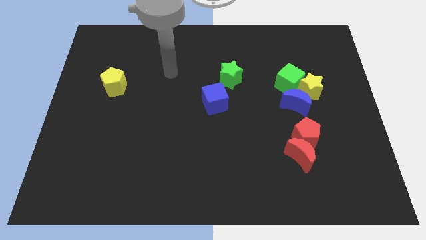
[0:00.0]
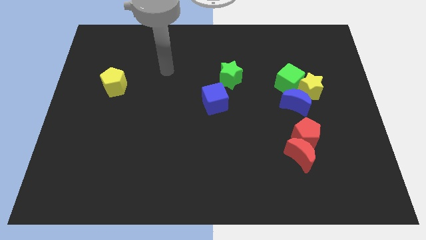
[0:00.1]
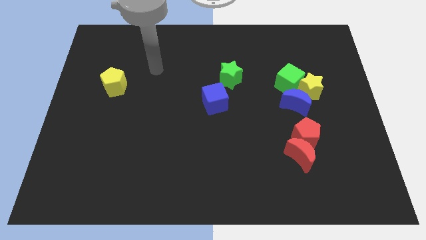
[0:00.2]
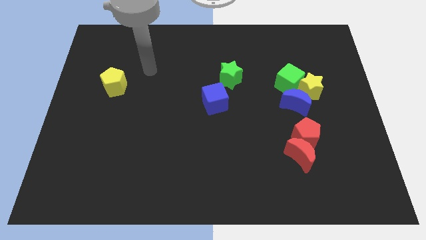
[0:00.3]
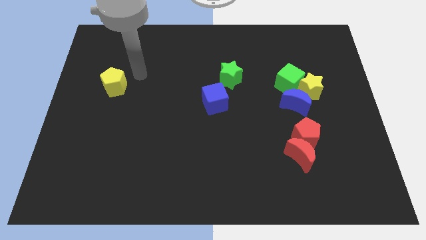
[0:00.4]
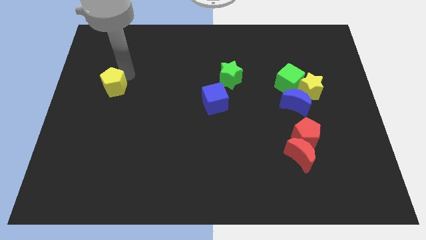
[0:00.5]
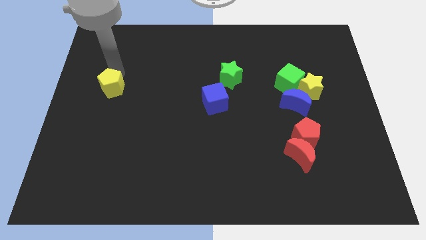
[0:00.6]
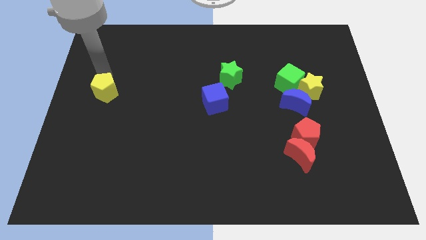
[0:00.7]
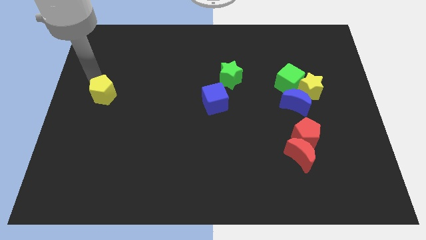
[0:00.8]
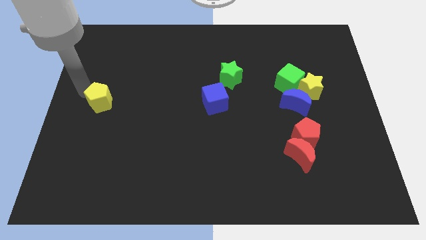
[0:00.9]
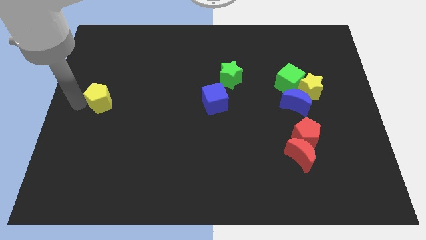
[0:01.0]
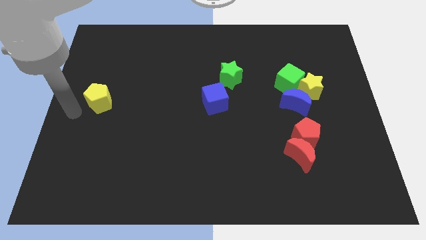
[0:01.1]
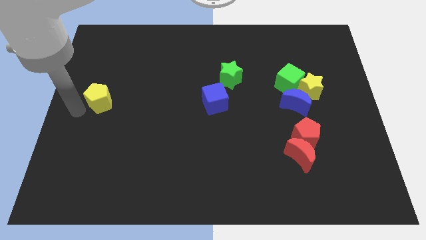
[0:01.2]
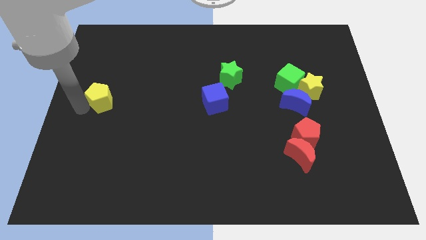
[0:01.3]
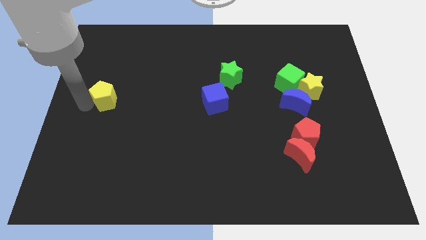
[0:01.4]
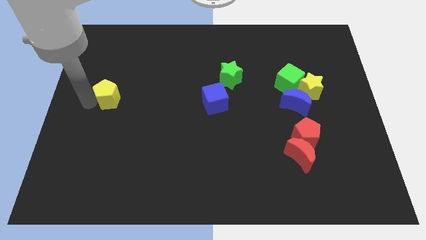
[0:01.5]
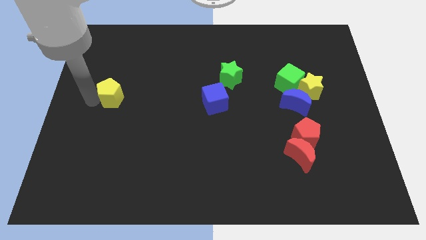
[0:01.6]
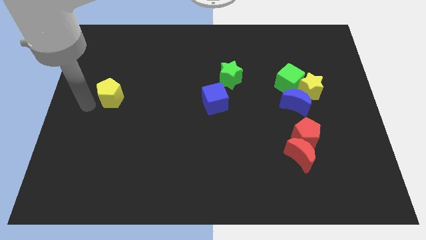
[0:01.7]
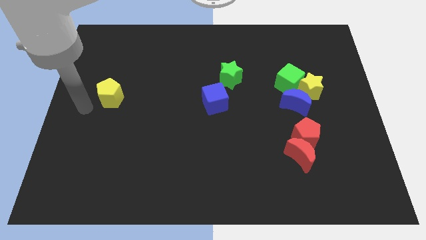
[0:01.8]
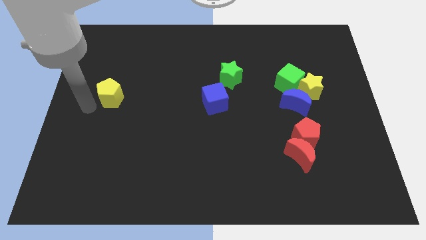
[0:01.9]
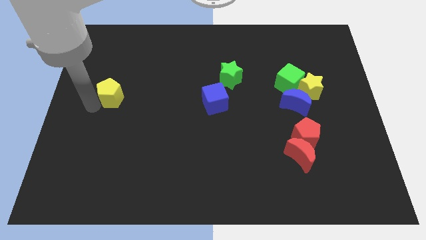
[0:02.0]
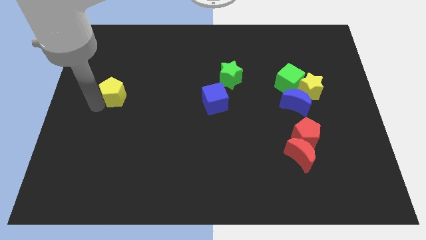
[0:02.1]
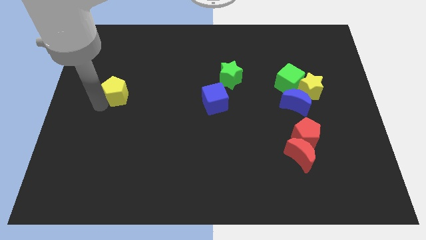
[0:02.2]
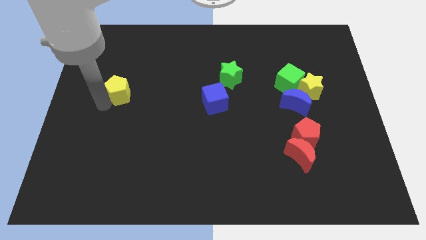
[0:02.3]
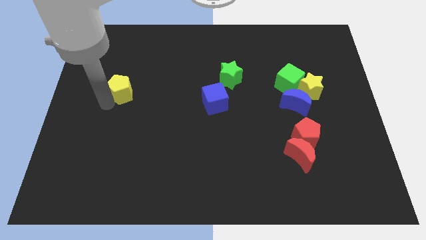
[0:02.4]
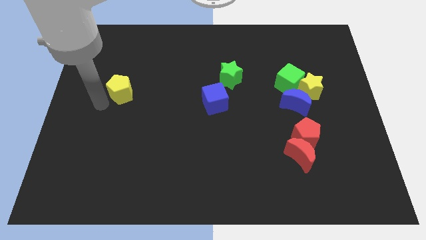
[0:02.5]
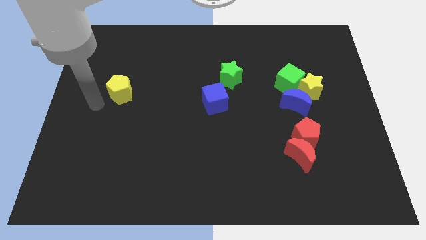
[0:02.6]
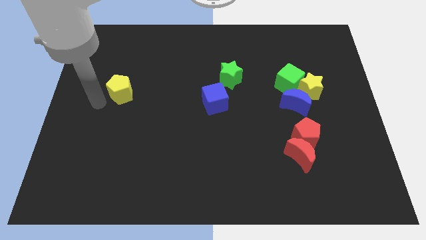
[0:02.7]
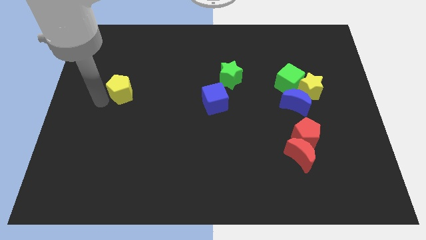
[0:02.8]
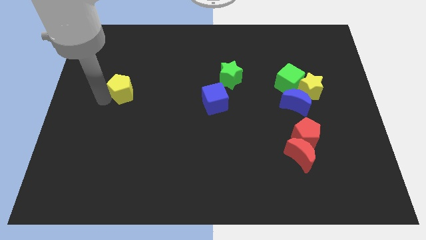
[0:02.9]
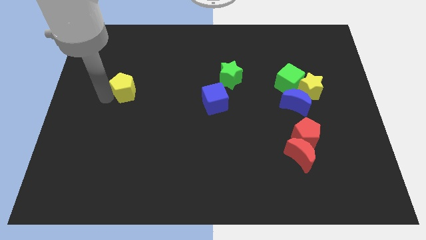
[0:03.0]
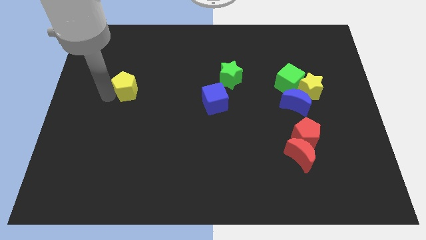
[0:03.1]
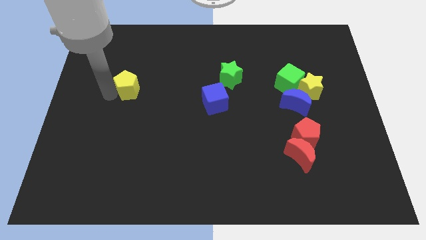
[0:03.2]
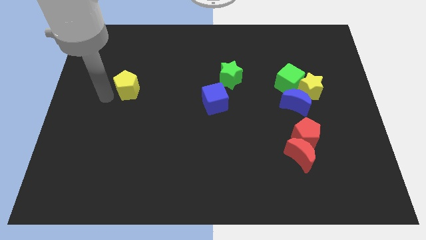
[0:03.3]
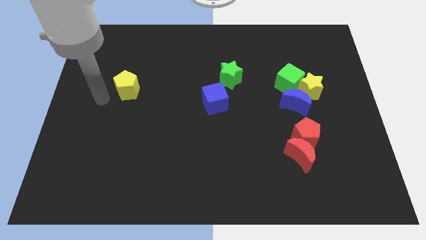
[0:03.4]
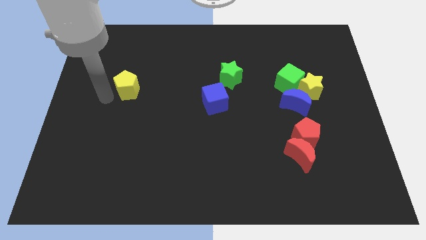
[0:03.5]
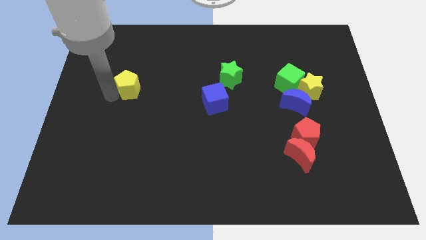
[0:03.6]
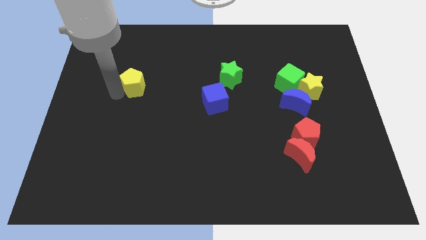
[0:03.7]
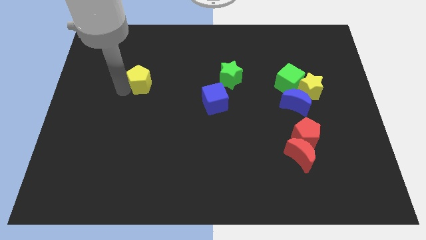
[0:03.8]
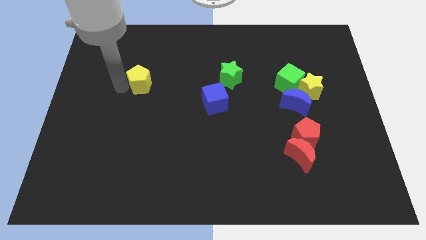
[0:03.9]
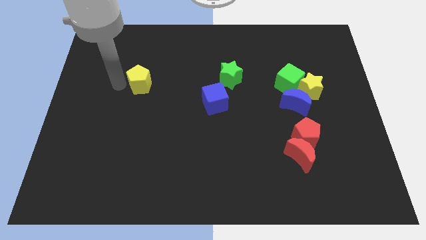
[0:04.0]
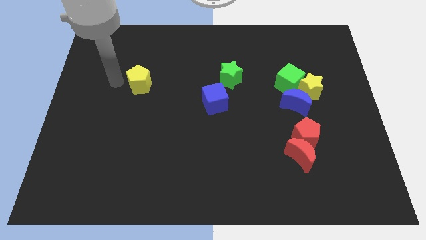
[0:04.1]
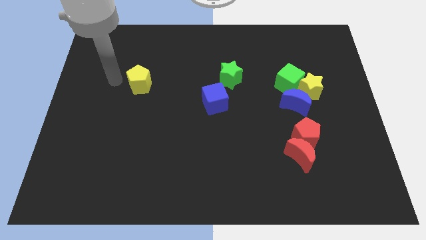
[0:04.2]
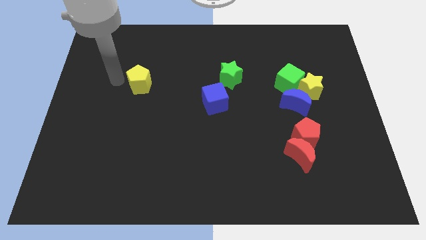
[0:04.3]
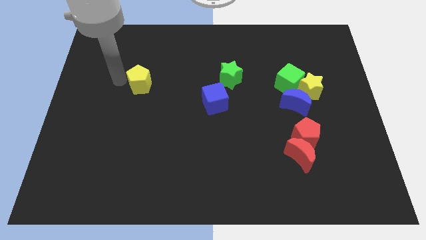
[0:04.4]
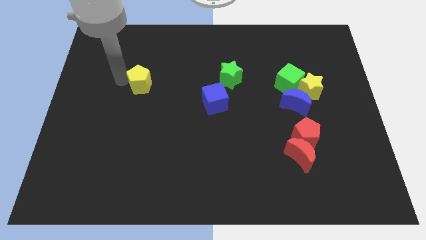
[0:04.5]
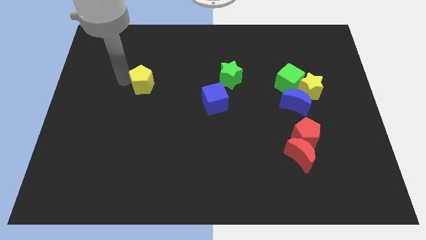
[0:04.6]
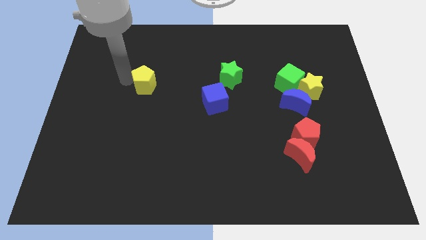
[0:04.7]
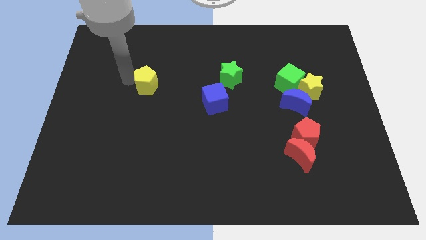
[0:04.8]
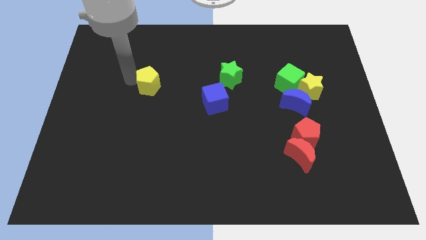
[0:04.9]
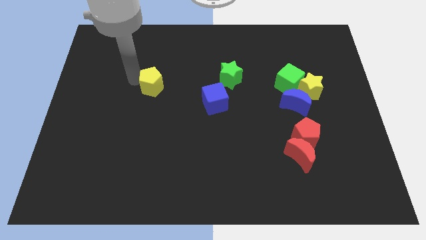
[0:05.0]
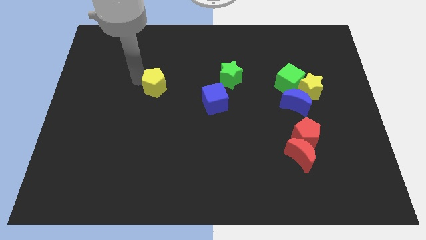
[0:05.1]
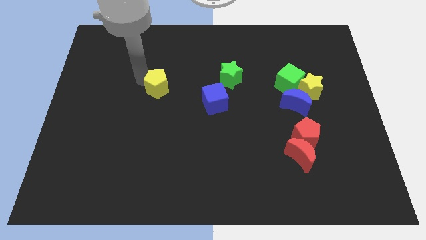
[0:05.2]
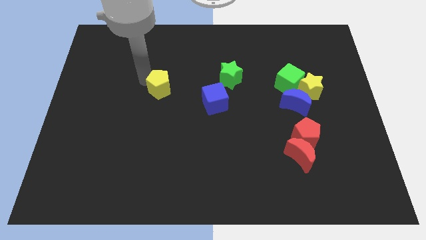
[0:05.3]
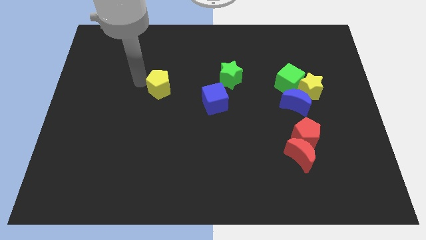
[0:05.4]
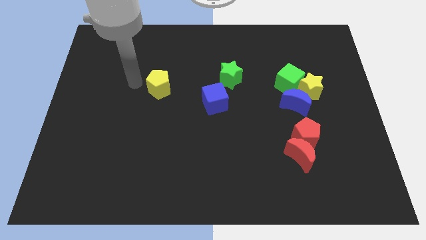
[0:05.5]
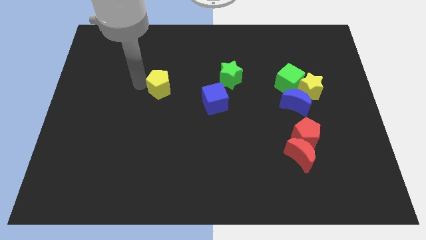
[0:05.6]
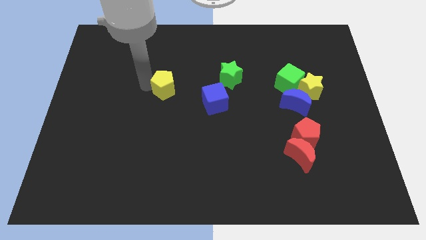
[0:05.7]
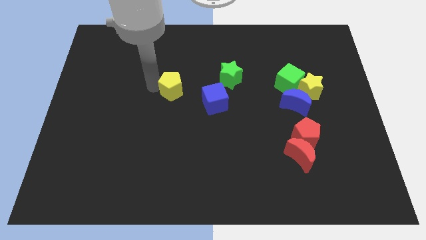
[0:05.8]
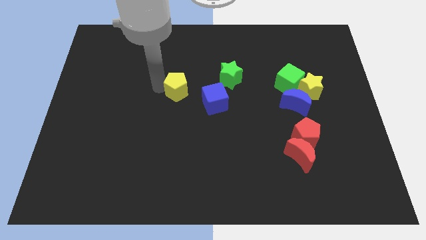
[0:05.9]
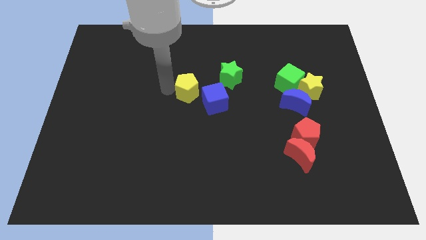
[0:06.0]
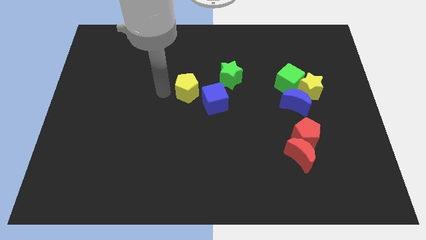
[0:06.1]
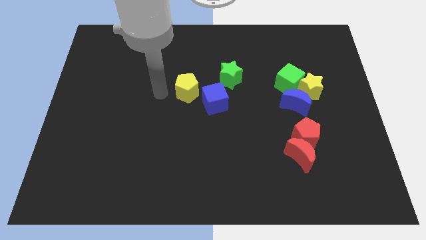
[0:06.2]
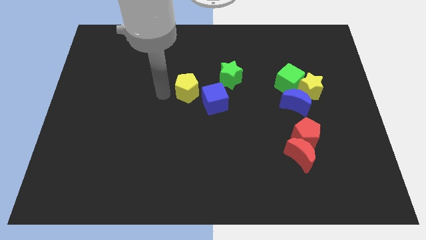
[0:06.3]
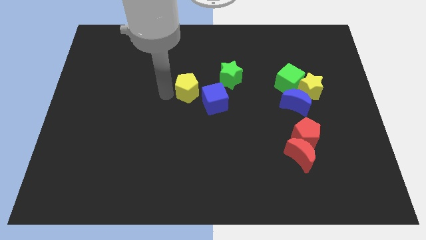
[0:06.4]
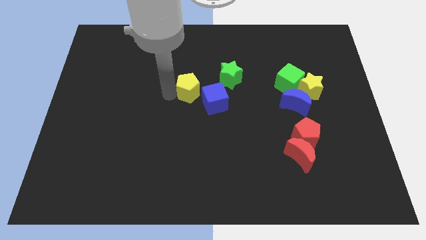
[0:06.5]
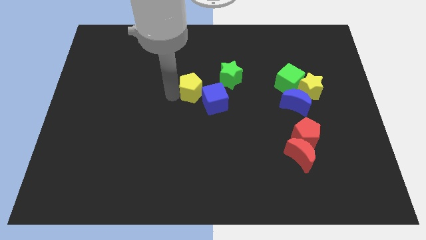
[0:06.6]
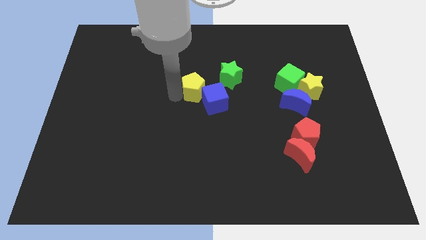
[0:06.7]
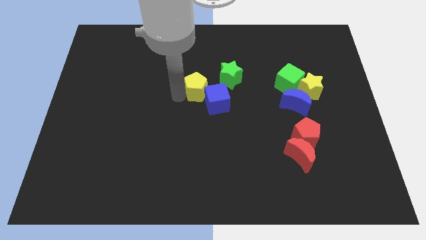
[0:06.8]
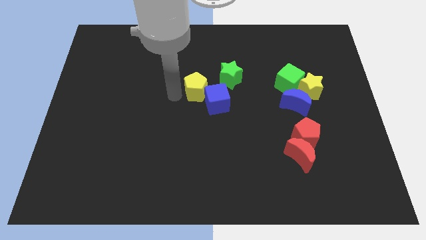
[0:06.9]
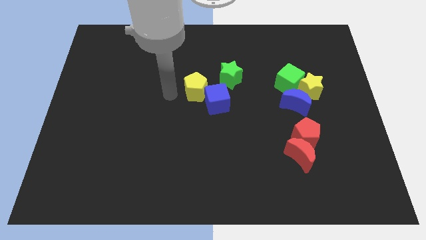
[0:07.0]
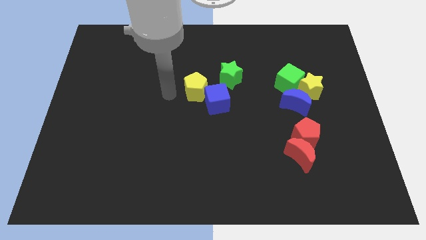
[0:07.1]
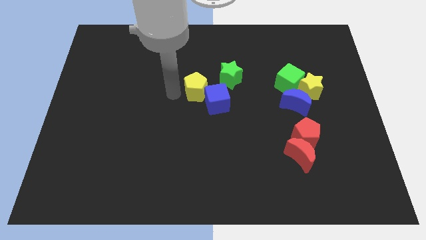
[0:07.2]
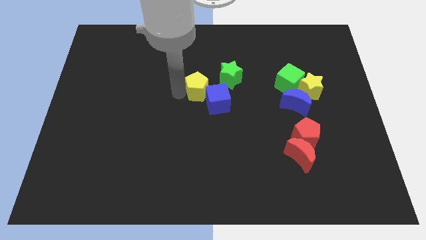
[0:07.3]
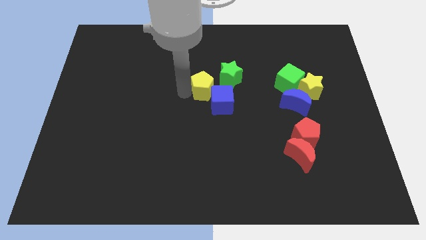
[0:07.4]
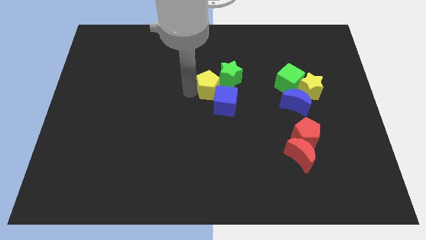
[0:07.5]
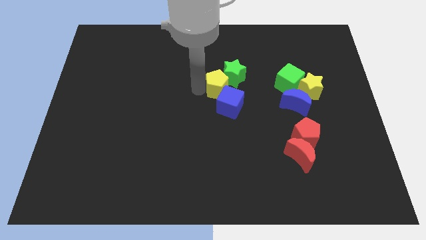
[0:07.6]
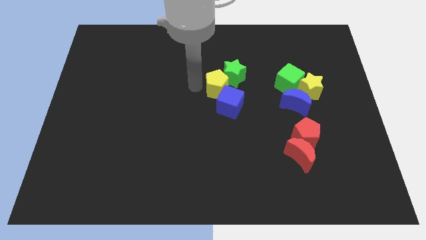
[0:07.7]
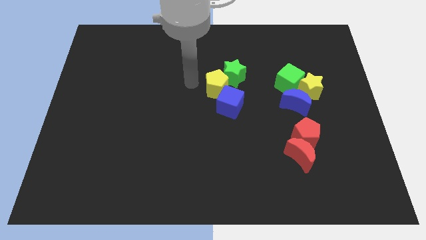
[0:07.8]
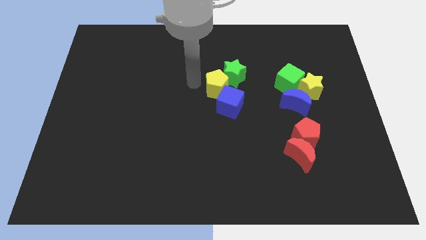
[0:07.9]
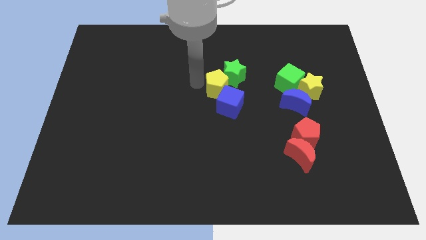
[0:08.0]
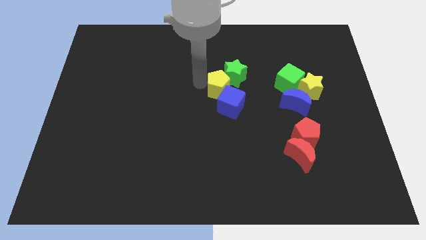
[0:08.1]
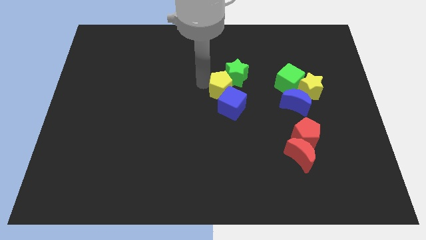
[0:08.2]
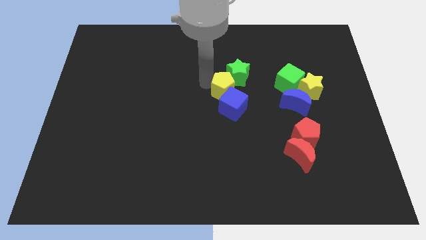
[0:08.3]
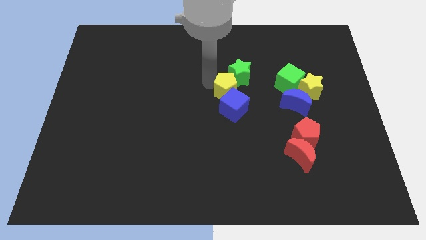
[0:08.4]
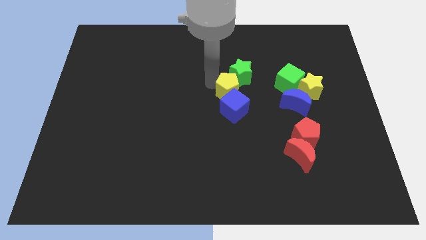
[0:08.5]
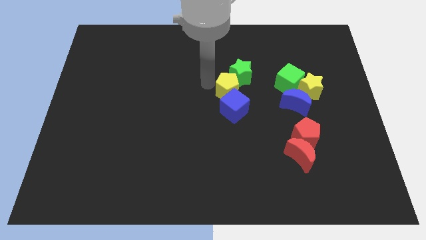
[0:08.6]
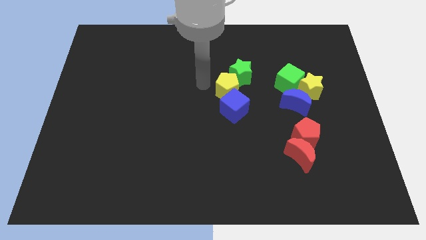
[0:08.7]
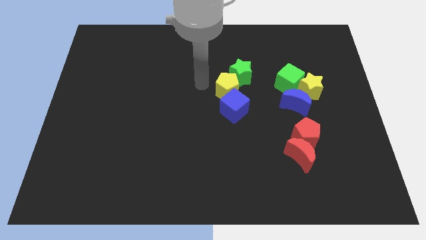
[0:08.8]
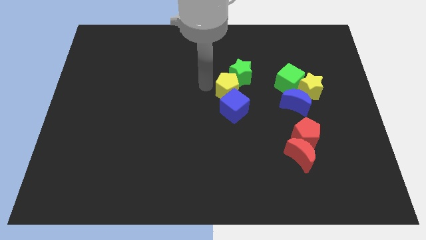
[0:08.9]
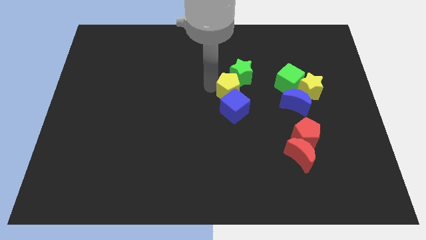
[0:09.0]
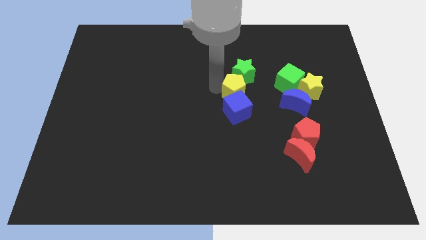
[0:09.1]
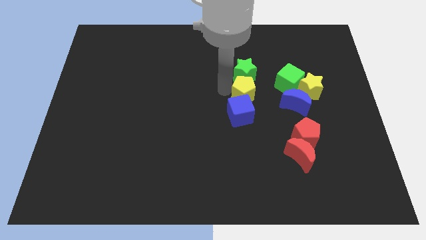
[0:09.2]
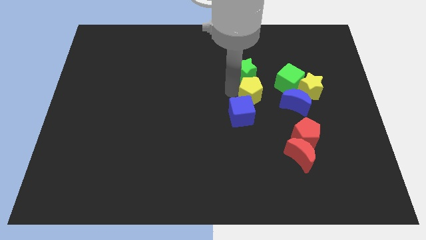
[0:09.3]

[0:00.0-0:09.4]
push the yellow pentagon diagonally down and to the left of the green cube
